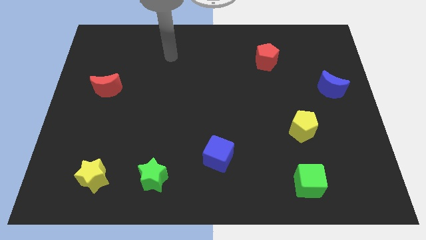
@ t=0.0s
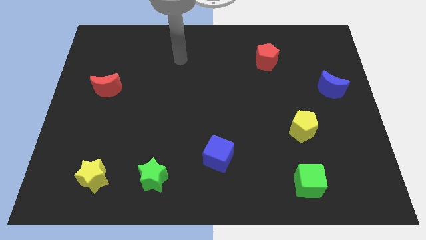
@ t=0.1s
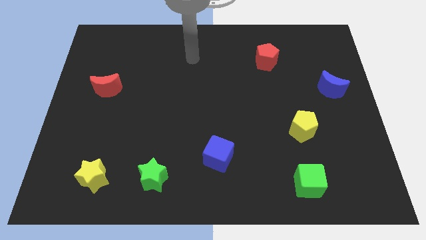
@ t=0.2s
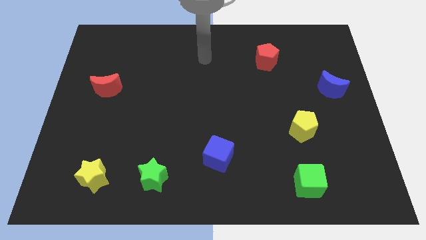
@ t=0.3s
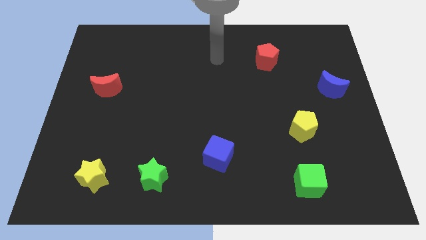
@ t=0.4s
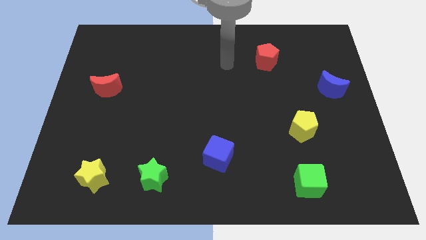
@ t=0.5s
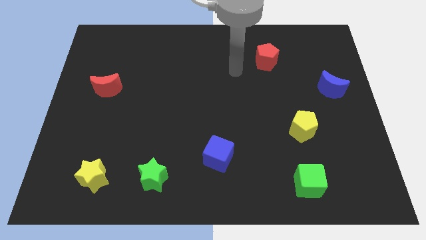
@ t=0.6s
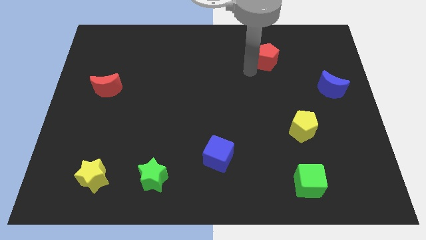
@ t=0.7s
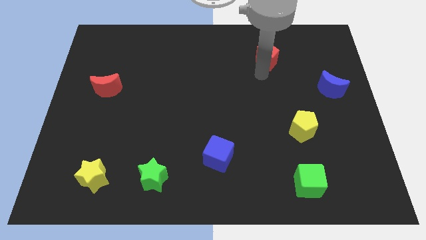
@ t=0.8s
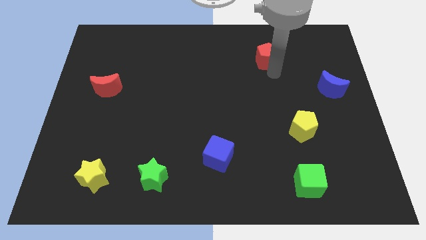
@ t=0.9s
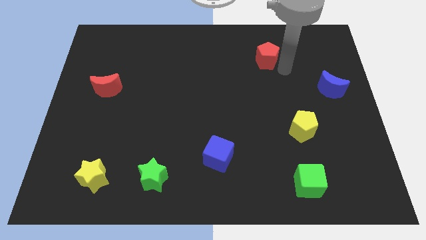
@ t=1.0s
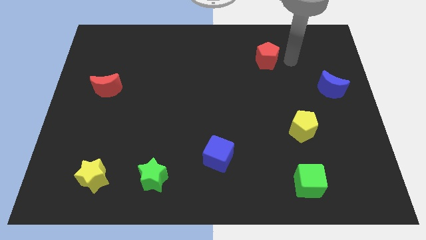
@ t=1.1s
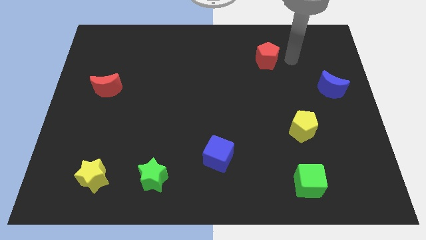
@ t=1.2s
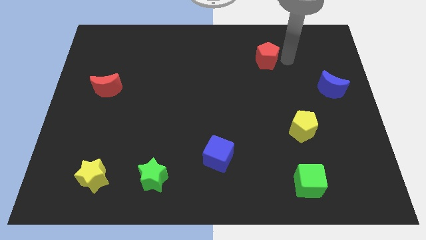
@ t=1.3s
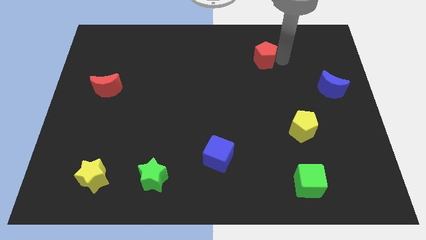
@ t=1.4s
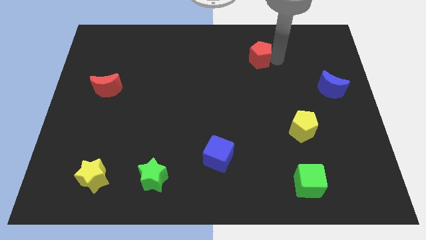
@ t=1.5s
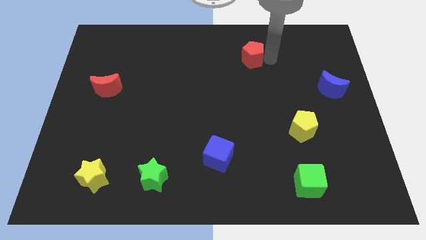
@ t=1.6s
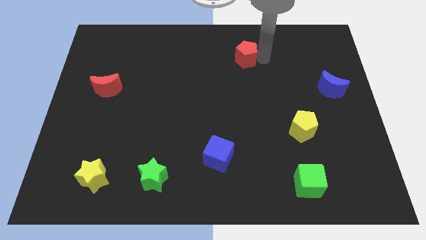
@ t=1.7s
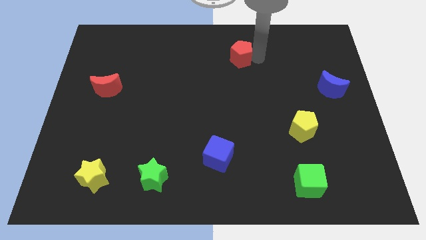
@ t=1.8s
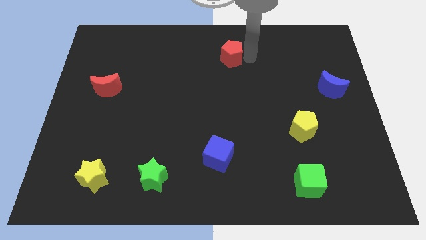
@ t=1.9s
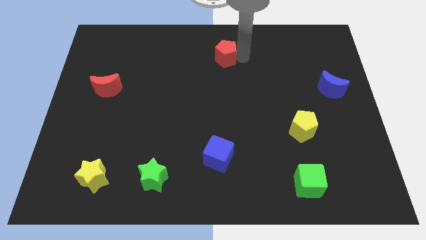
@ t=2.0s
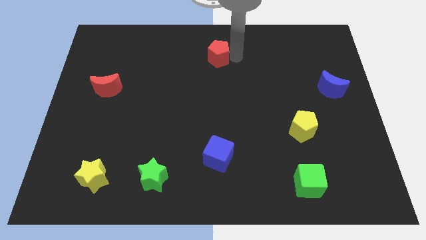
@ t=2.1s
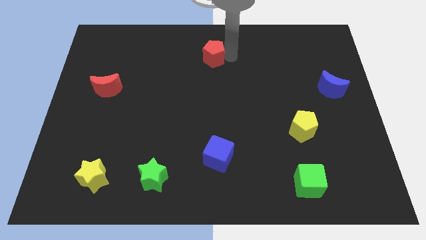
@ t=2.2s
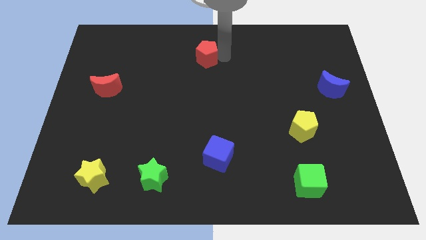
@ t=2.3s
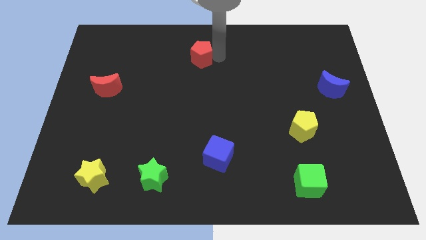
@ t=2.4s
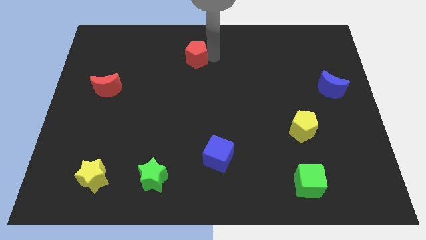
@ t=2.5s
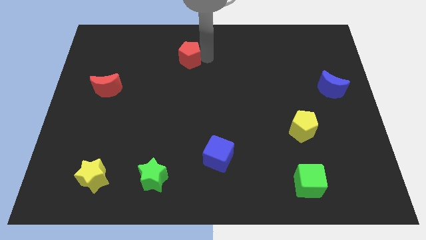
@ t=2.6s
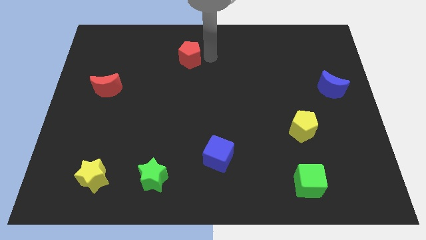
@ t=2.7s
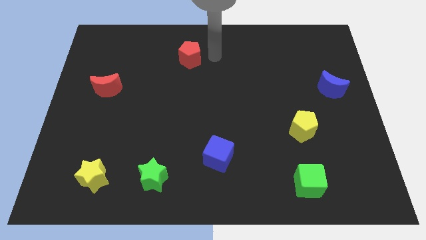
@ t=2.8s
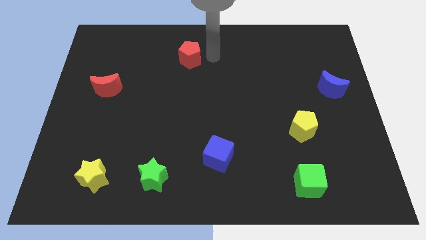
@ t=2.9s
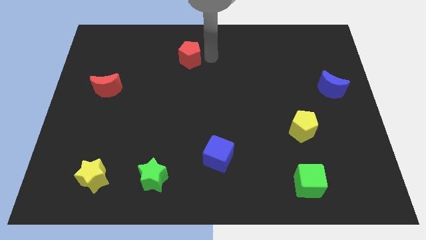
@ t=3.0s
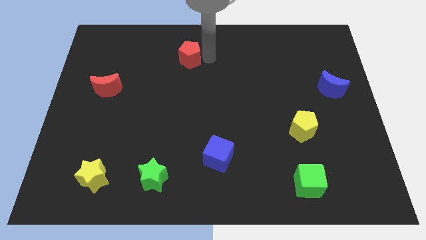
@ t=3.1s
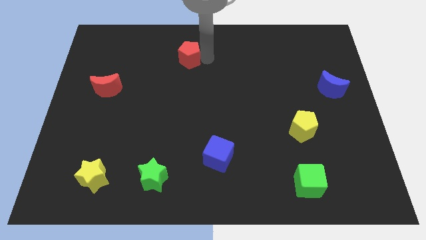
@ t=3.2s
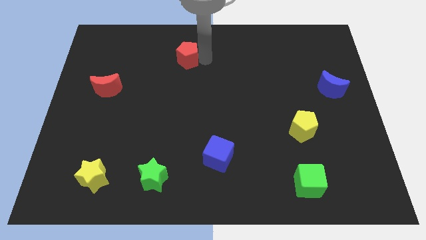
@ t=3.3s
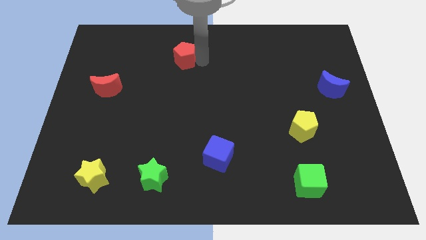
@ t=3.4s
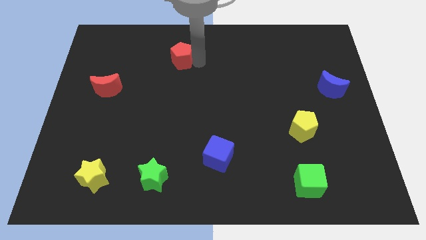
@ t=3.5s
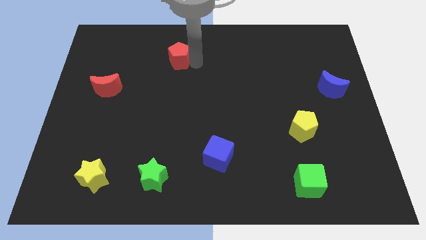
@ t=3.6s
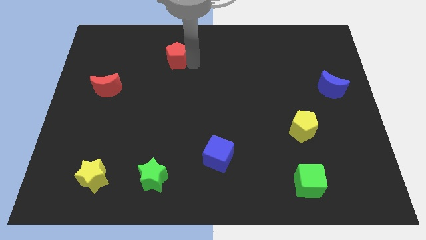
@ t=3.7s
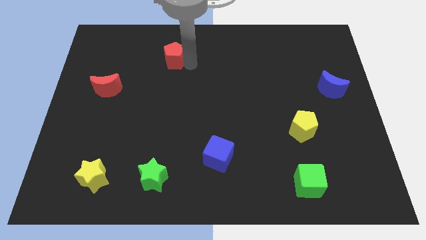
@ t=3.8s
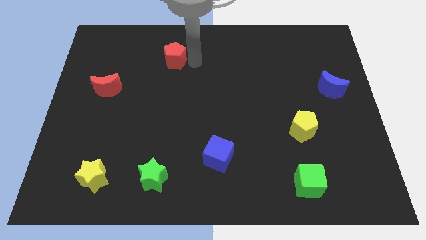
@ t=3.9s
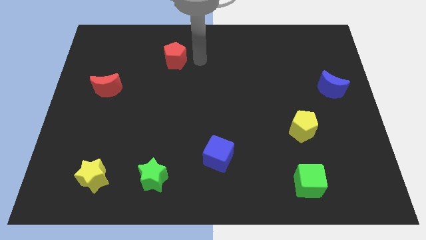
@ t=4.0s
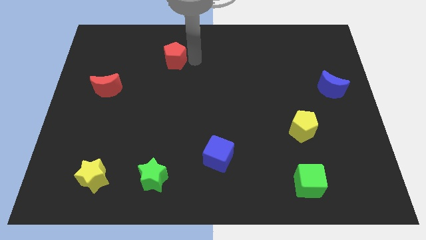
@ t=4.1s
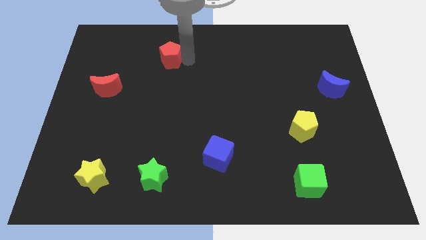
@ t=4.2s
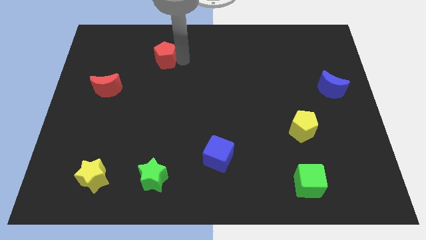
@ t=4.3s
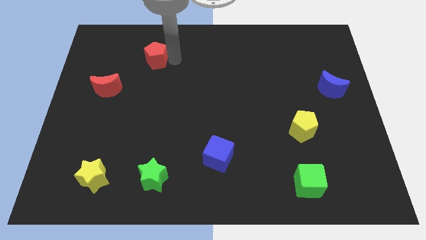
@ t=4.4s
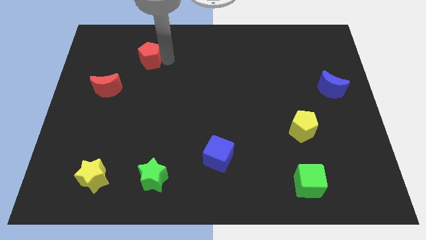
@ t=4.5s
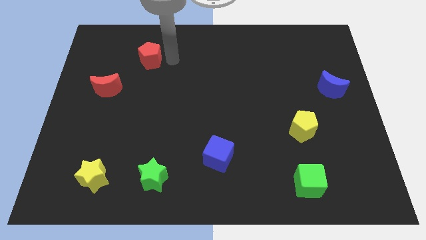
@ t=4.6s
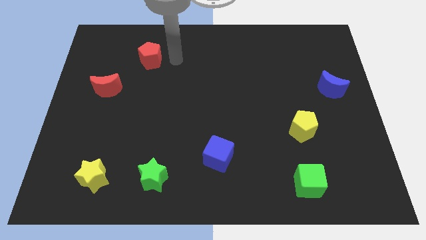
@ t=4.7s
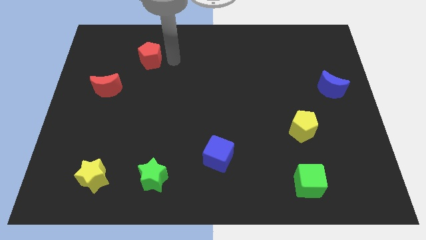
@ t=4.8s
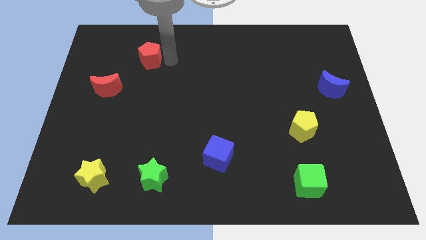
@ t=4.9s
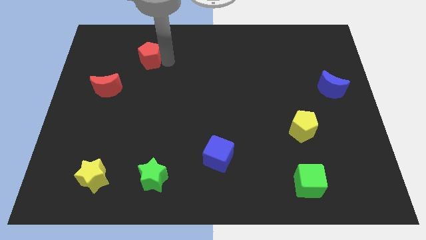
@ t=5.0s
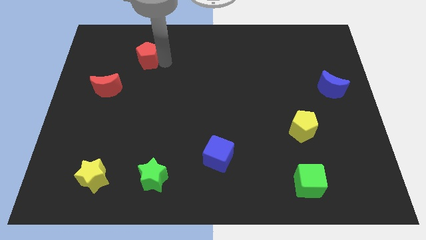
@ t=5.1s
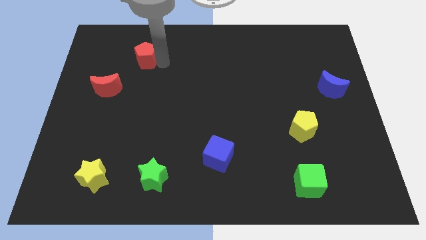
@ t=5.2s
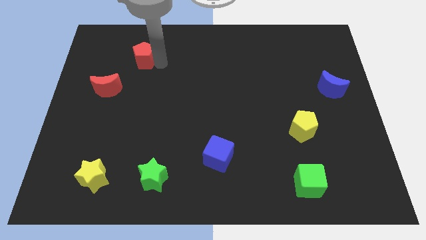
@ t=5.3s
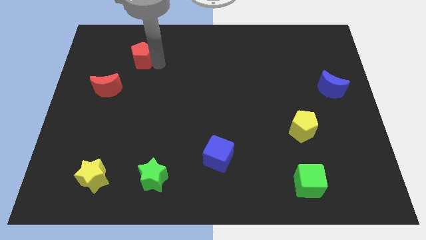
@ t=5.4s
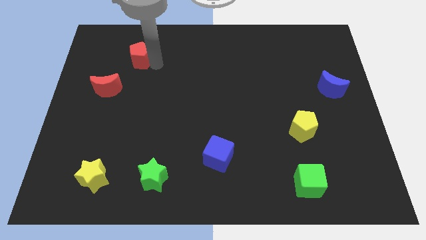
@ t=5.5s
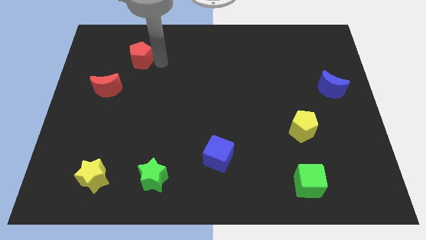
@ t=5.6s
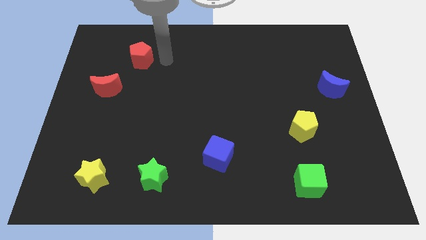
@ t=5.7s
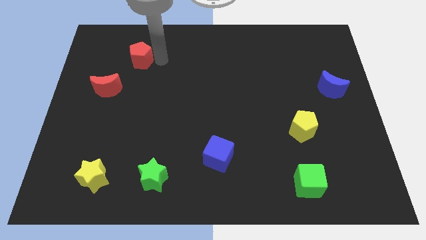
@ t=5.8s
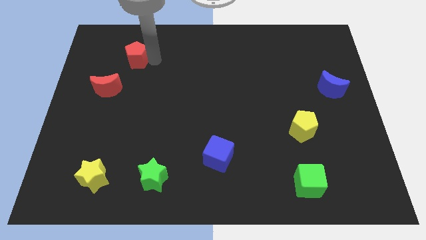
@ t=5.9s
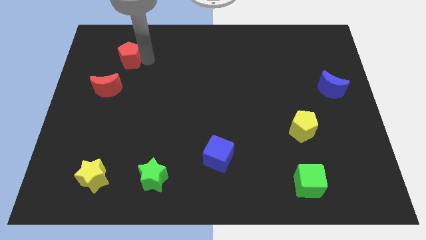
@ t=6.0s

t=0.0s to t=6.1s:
push the red pentagon to the top side of the red moon

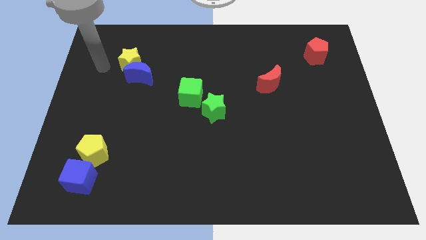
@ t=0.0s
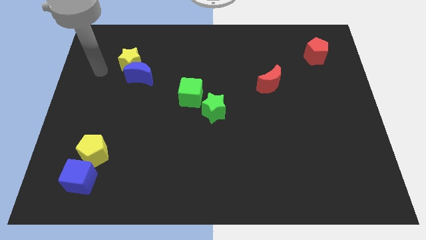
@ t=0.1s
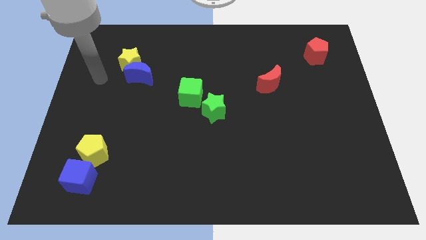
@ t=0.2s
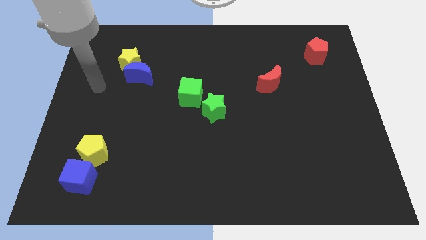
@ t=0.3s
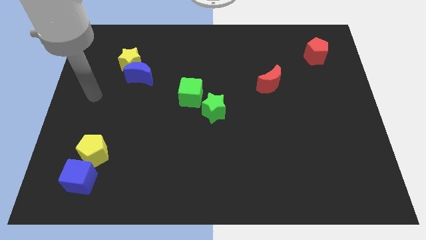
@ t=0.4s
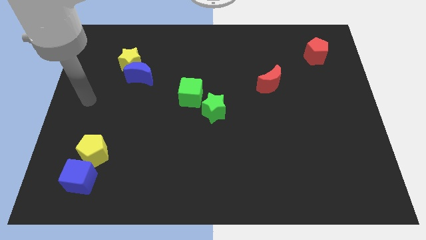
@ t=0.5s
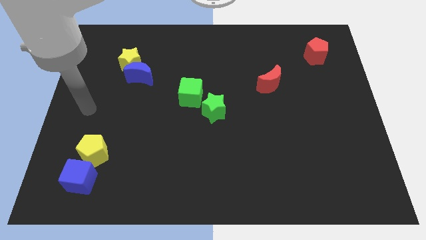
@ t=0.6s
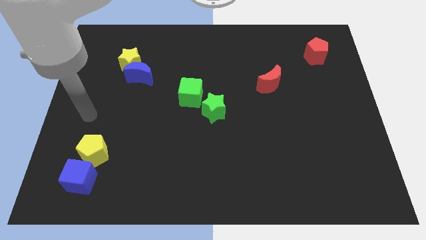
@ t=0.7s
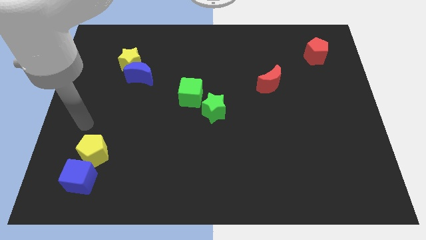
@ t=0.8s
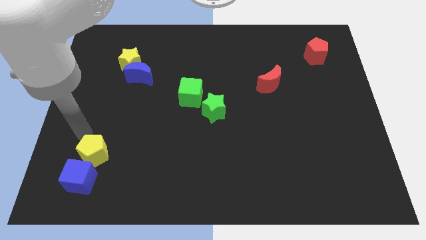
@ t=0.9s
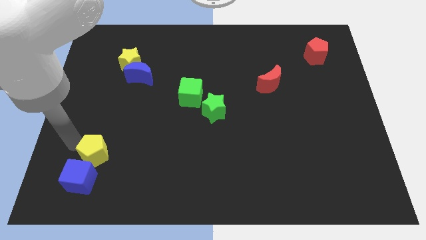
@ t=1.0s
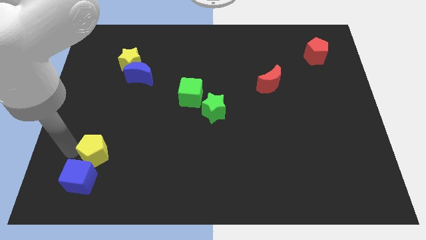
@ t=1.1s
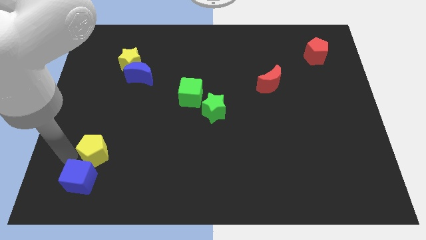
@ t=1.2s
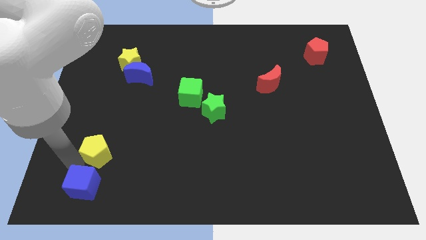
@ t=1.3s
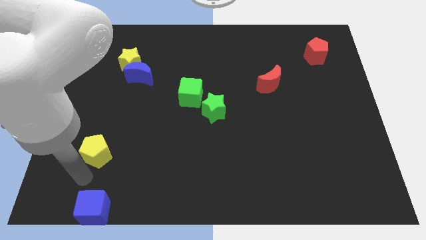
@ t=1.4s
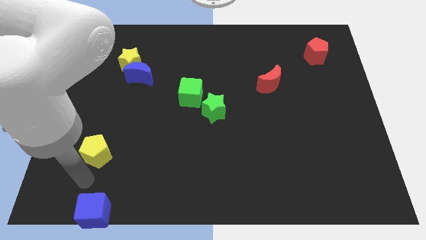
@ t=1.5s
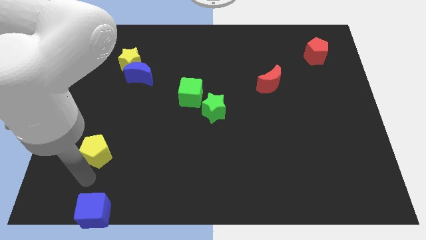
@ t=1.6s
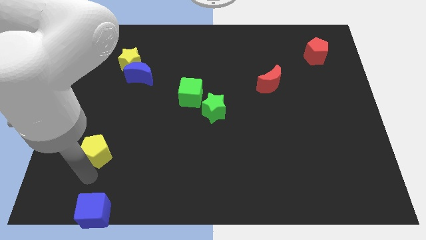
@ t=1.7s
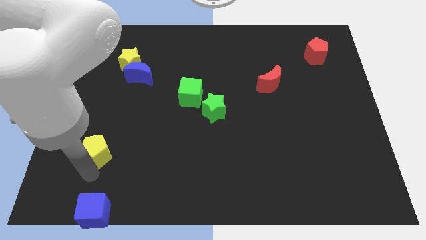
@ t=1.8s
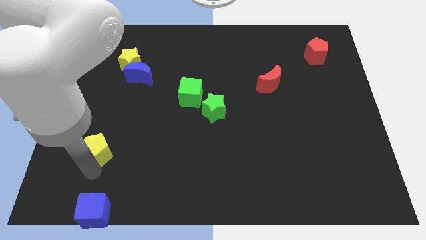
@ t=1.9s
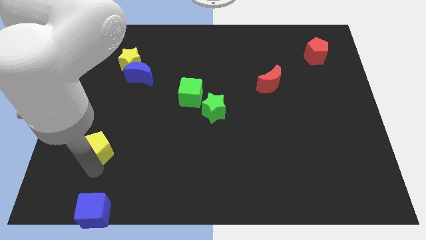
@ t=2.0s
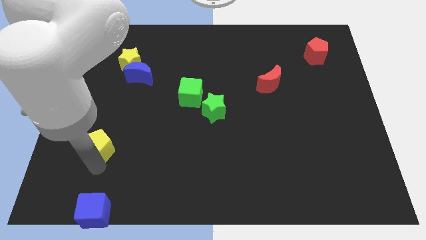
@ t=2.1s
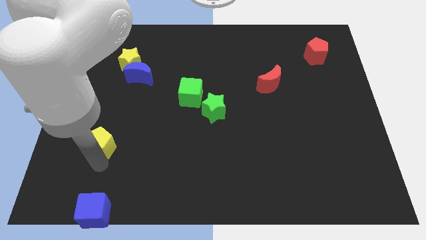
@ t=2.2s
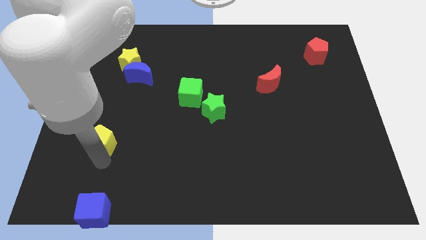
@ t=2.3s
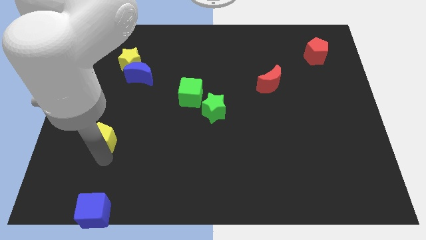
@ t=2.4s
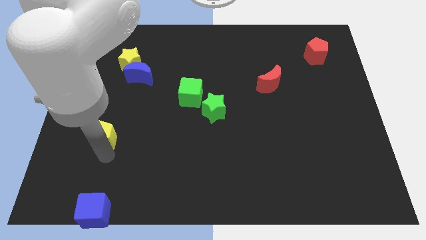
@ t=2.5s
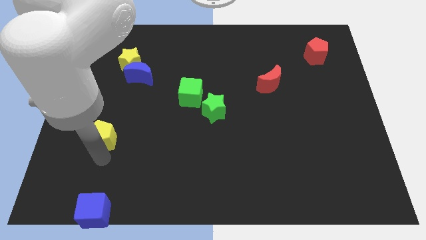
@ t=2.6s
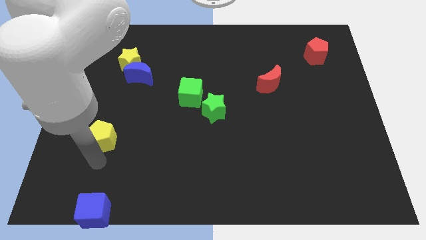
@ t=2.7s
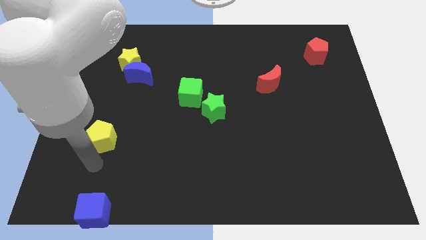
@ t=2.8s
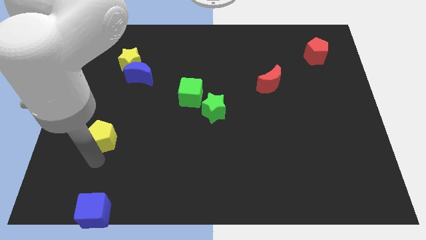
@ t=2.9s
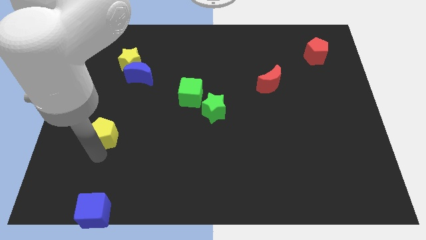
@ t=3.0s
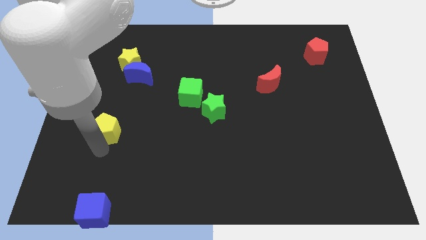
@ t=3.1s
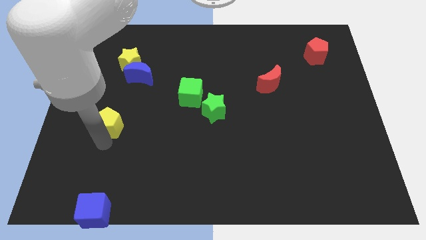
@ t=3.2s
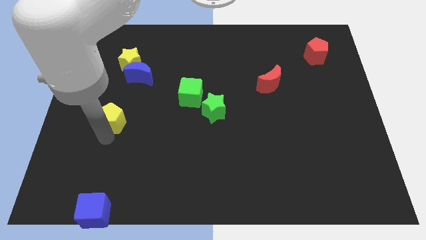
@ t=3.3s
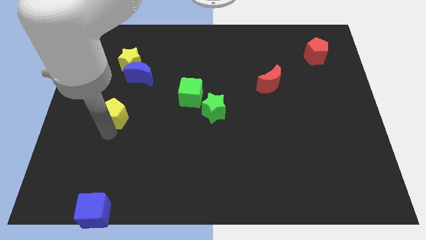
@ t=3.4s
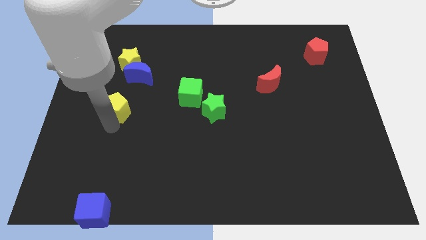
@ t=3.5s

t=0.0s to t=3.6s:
put the yellow pentagon below the yellow star
